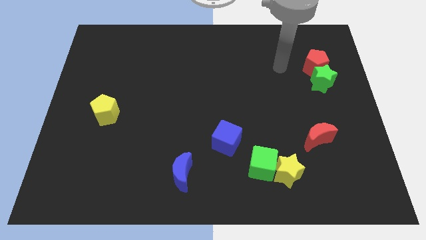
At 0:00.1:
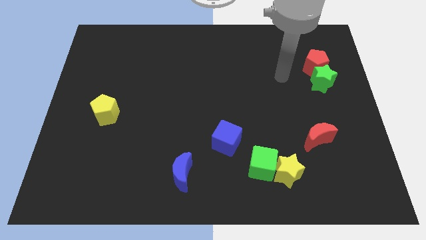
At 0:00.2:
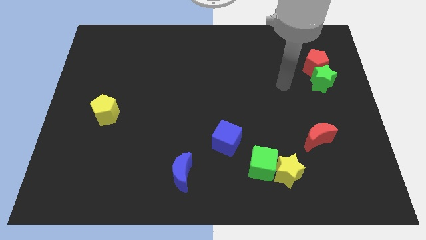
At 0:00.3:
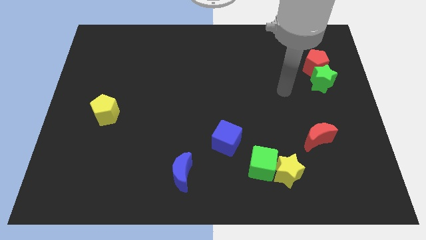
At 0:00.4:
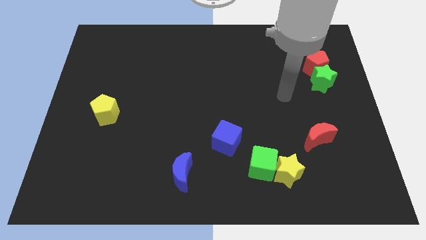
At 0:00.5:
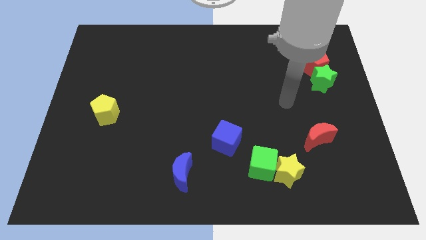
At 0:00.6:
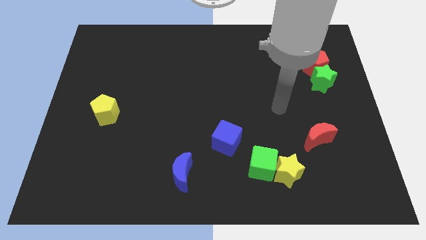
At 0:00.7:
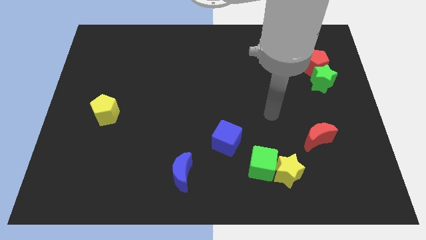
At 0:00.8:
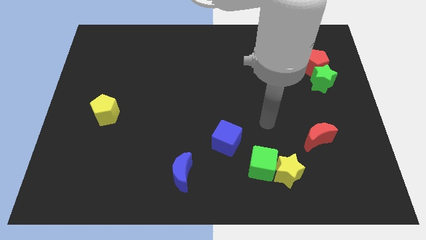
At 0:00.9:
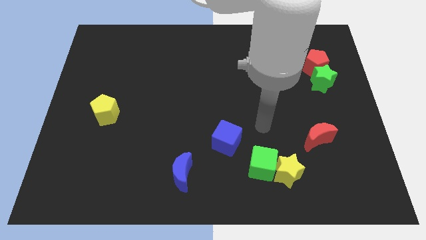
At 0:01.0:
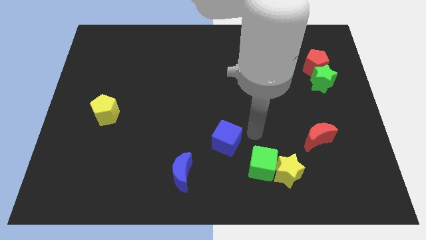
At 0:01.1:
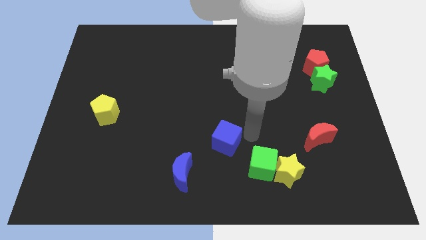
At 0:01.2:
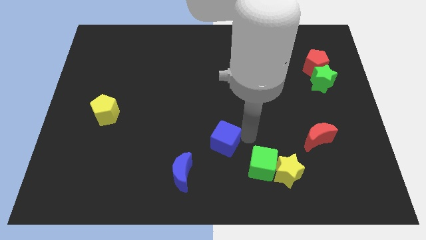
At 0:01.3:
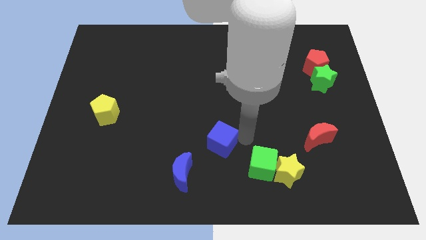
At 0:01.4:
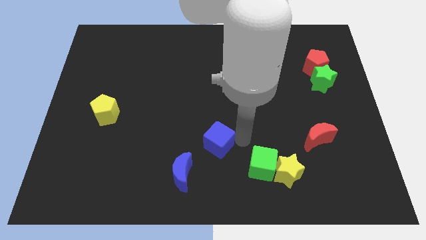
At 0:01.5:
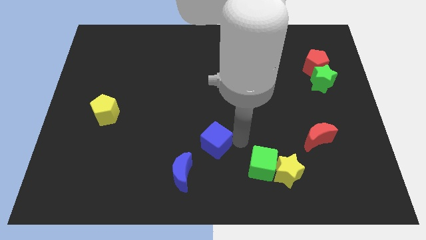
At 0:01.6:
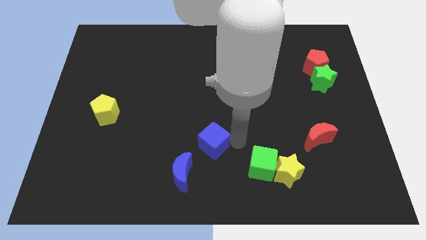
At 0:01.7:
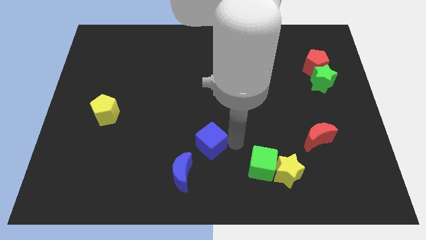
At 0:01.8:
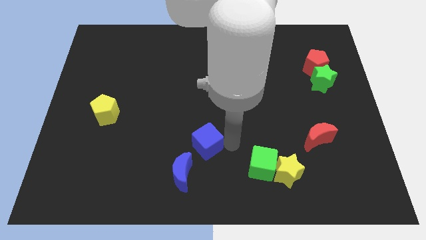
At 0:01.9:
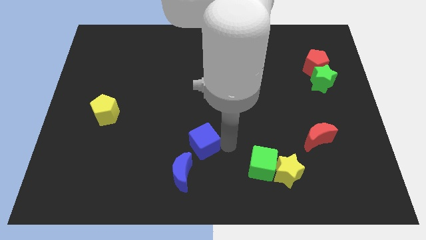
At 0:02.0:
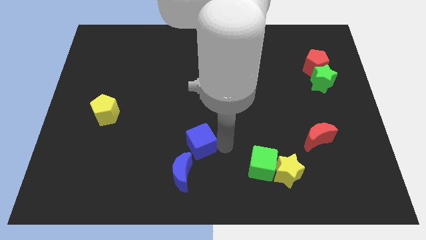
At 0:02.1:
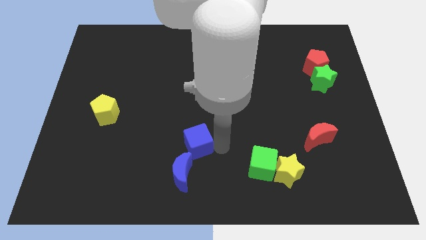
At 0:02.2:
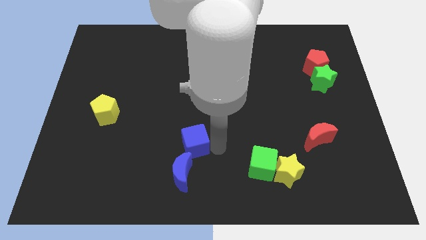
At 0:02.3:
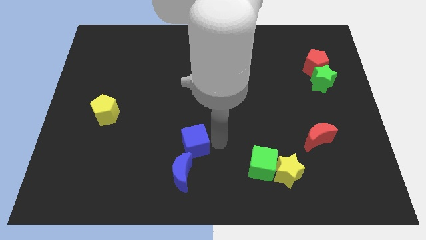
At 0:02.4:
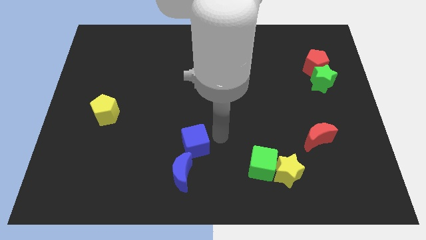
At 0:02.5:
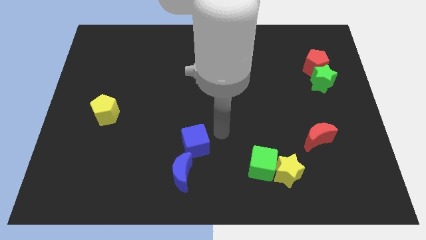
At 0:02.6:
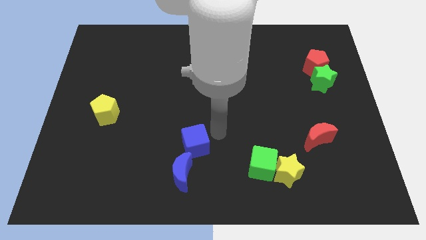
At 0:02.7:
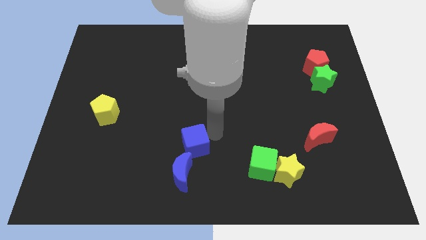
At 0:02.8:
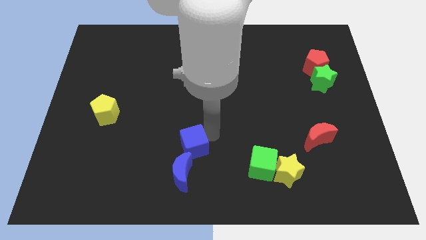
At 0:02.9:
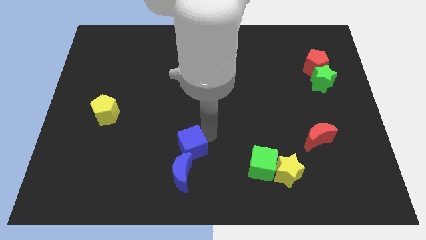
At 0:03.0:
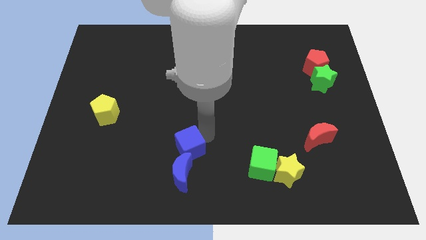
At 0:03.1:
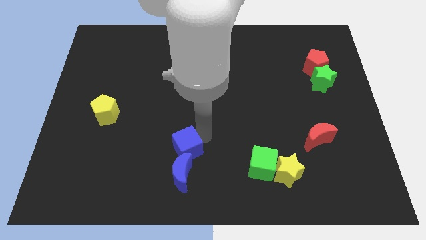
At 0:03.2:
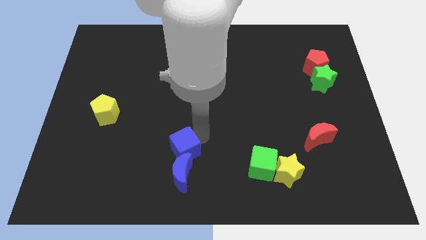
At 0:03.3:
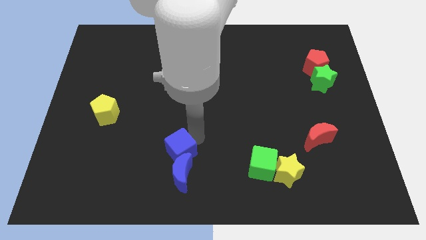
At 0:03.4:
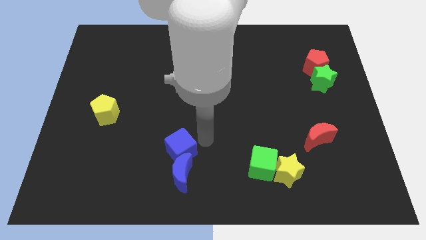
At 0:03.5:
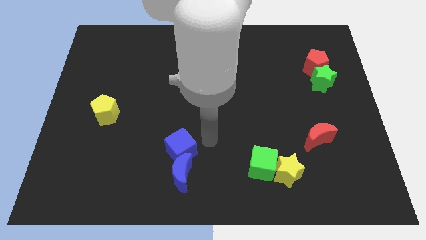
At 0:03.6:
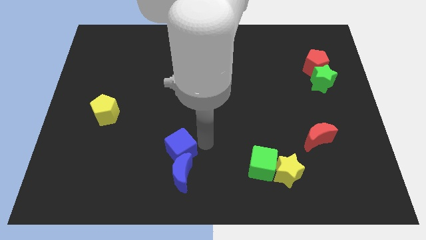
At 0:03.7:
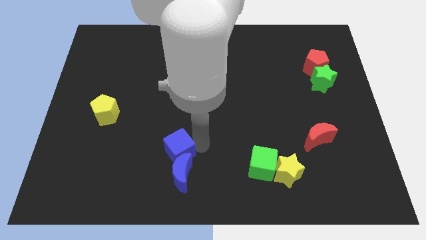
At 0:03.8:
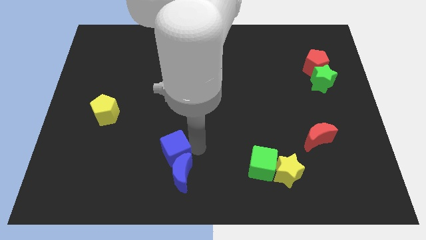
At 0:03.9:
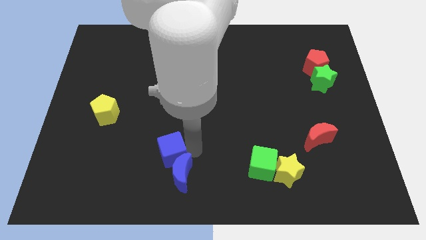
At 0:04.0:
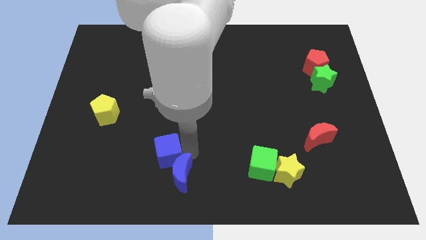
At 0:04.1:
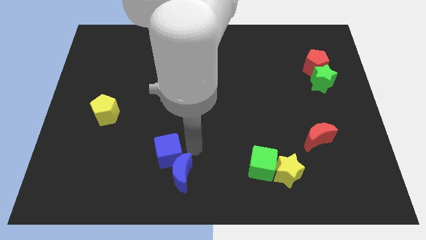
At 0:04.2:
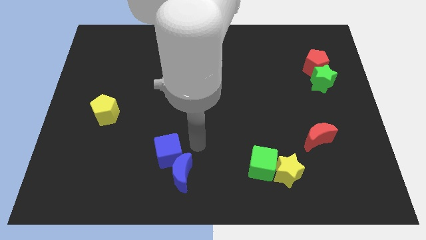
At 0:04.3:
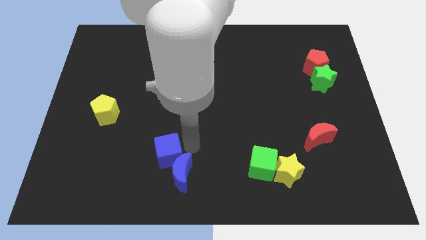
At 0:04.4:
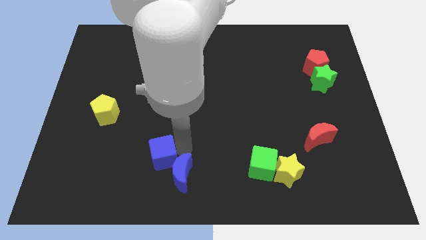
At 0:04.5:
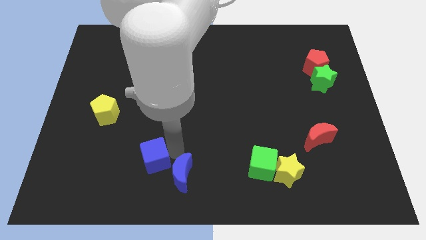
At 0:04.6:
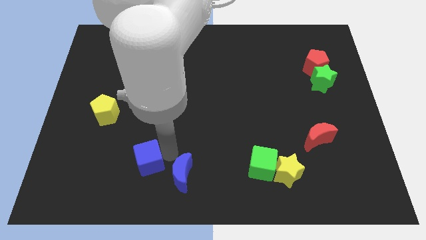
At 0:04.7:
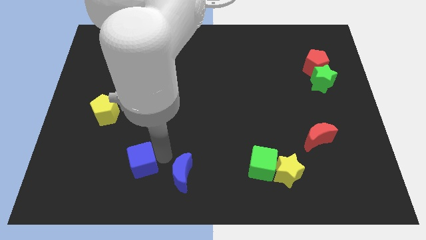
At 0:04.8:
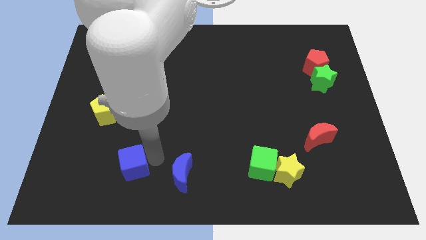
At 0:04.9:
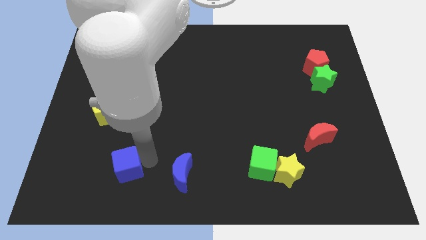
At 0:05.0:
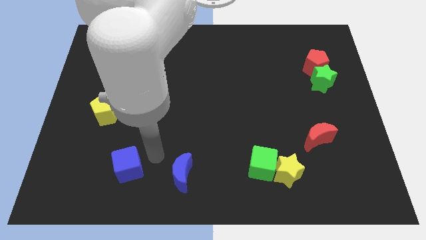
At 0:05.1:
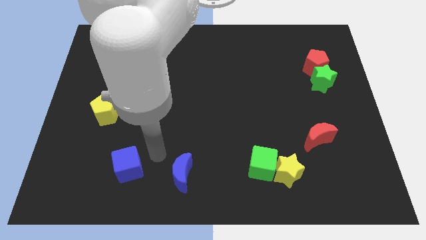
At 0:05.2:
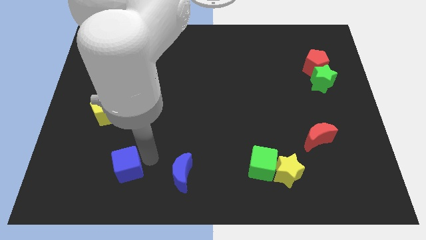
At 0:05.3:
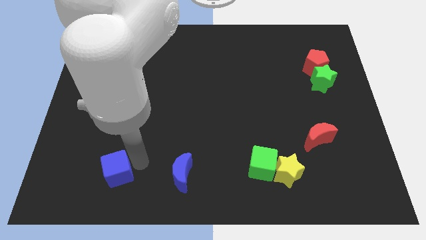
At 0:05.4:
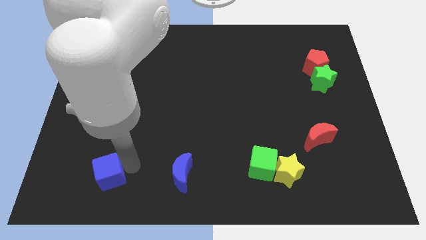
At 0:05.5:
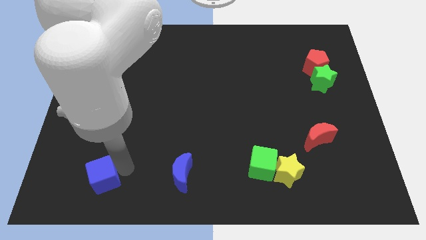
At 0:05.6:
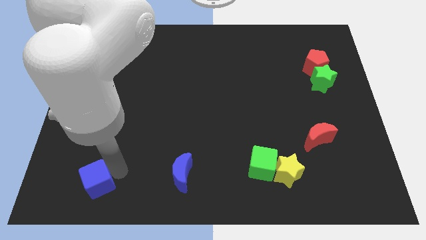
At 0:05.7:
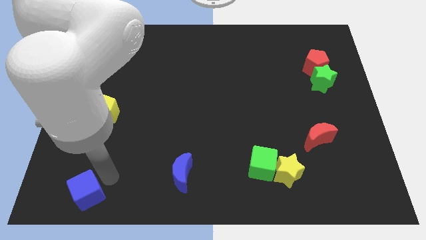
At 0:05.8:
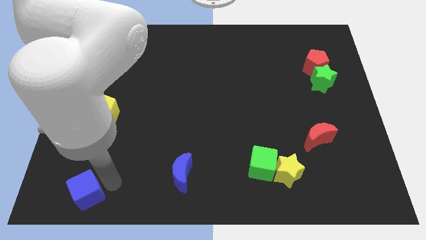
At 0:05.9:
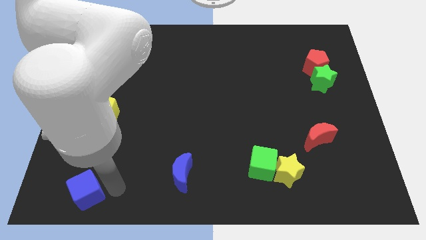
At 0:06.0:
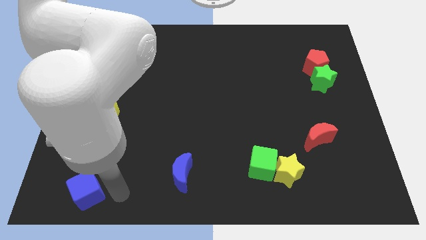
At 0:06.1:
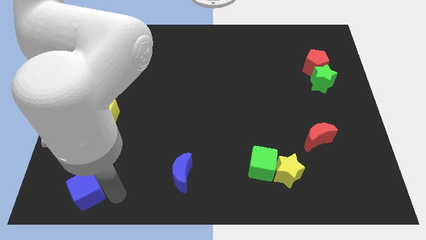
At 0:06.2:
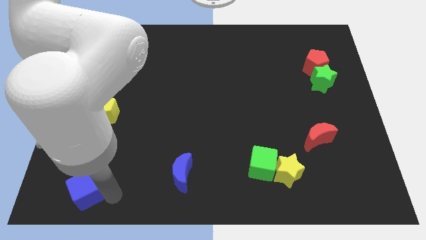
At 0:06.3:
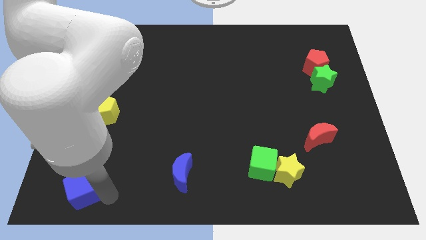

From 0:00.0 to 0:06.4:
push the blue cube to the lower left corner

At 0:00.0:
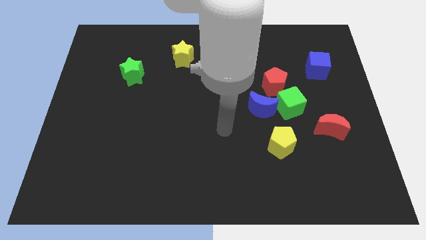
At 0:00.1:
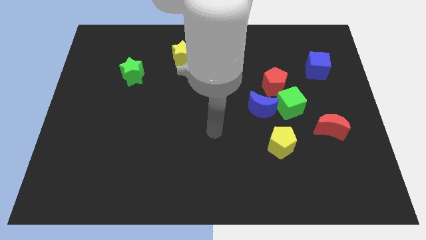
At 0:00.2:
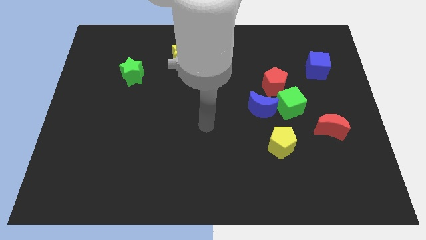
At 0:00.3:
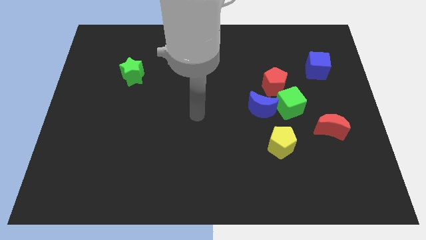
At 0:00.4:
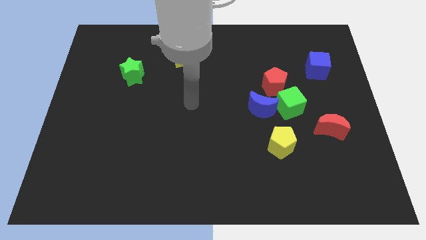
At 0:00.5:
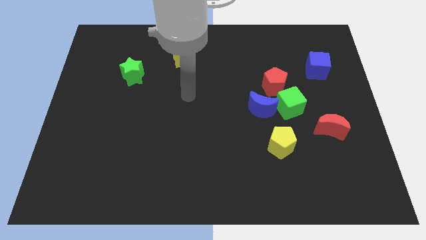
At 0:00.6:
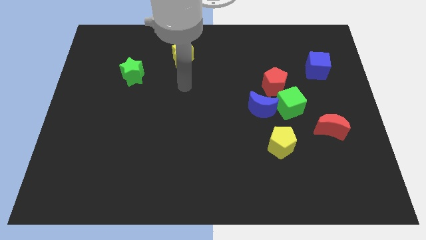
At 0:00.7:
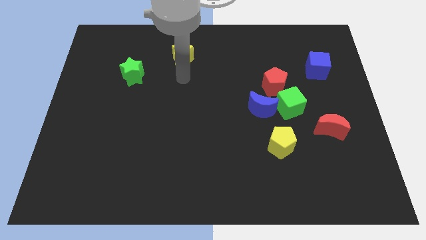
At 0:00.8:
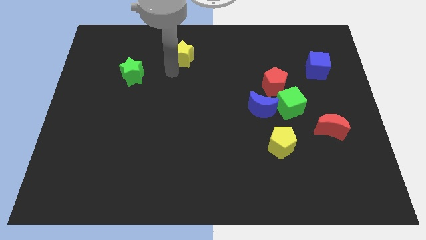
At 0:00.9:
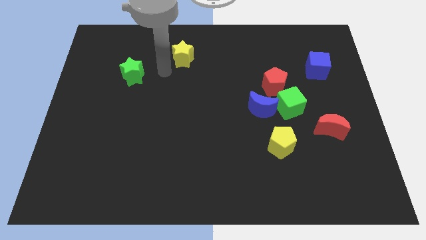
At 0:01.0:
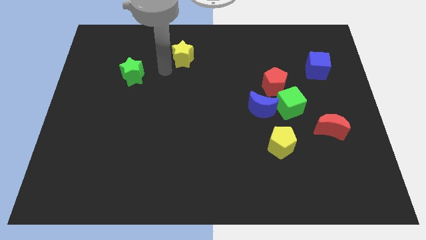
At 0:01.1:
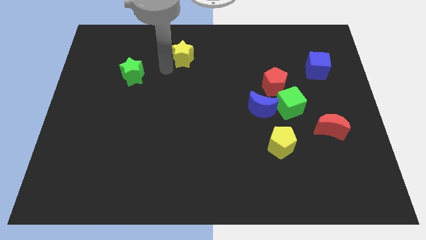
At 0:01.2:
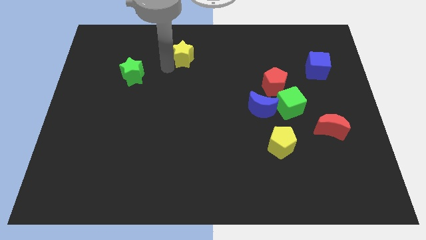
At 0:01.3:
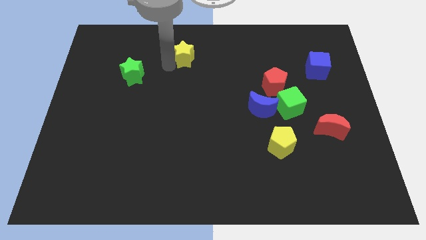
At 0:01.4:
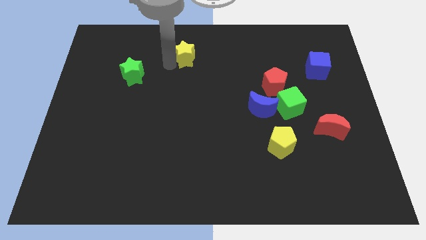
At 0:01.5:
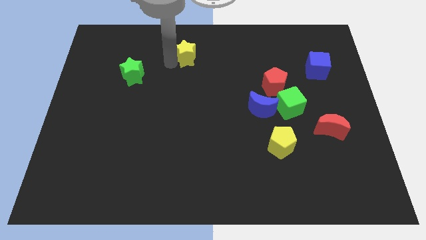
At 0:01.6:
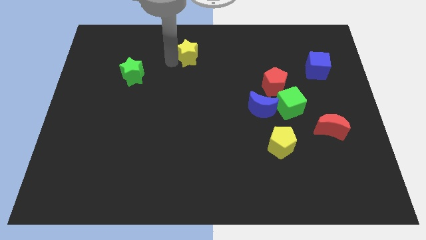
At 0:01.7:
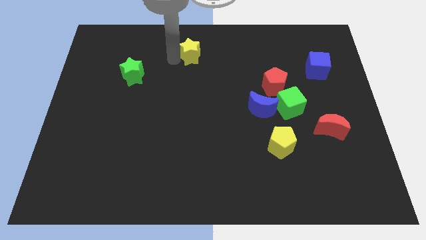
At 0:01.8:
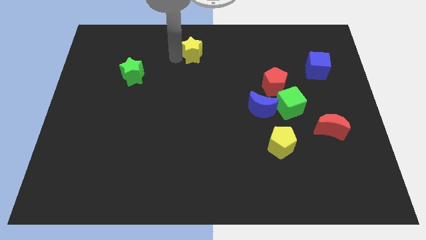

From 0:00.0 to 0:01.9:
push the yellow star to the towards your base
